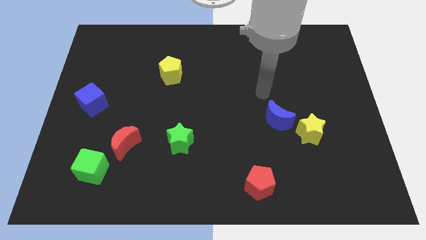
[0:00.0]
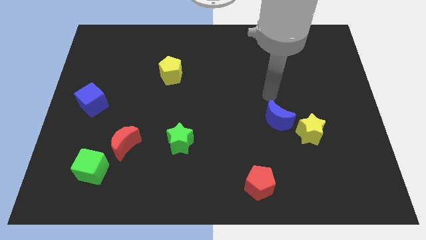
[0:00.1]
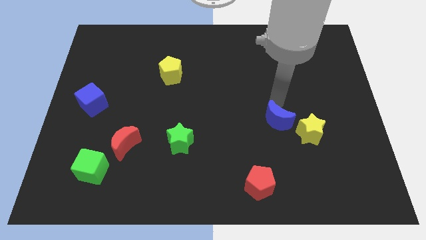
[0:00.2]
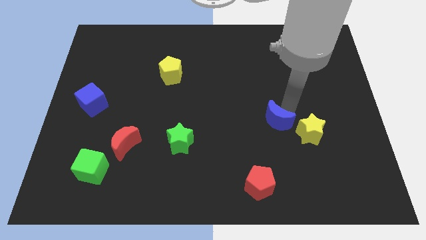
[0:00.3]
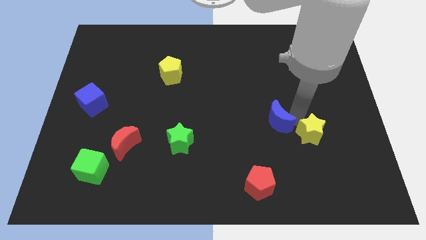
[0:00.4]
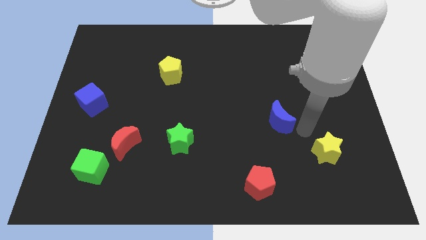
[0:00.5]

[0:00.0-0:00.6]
move the blue moon away from the yellow star

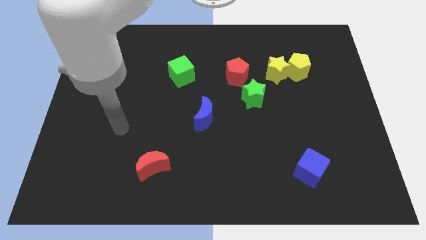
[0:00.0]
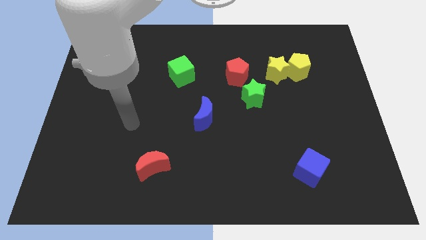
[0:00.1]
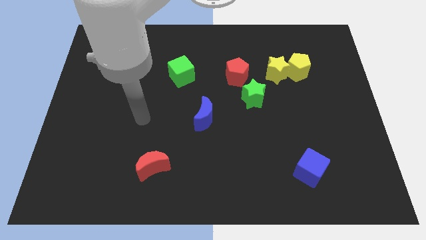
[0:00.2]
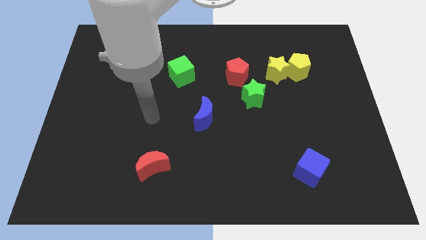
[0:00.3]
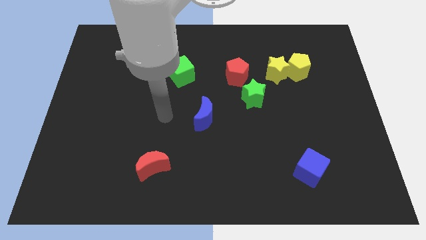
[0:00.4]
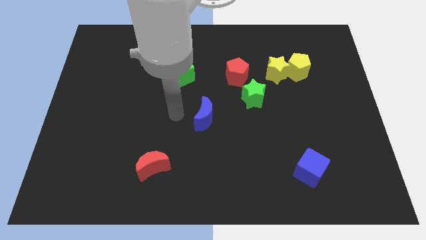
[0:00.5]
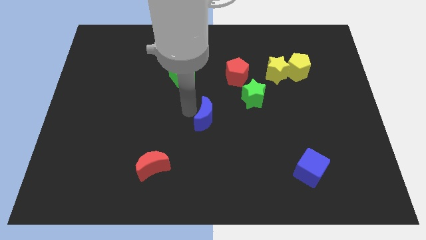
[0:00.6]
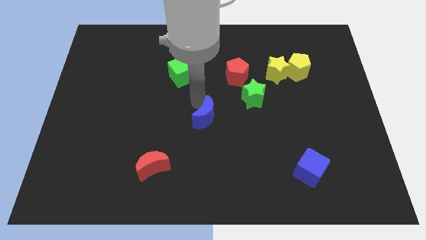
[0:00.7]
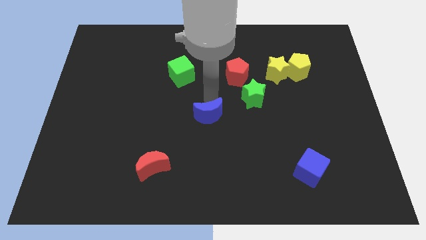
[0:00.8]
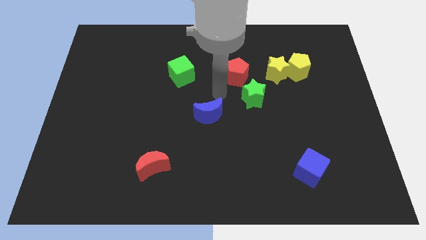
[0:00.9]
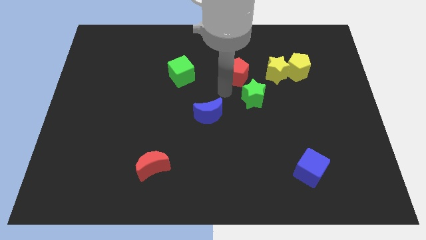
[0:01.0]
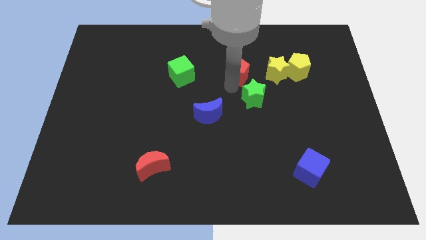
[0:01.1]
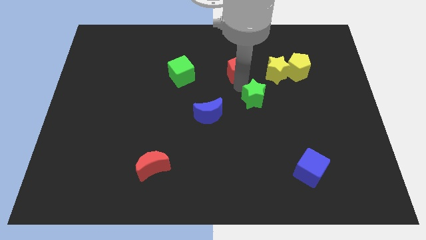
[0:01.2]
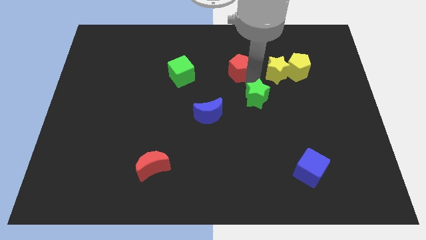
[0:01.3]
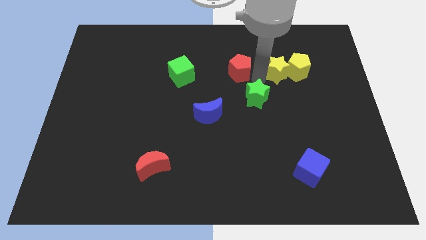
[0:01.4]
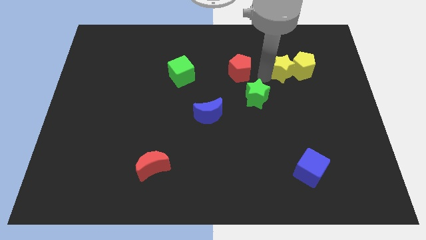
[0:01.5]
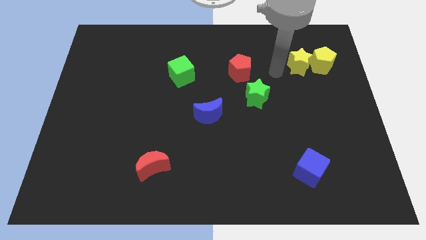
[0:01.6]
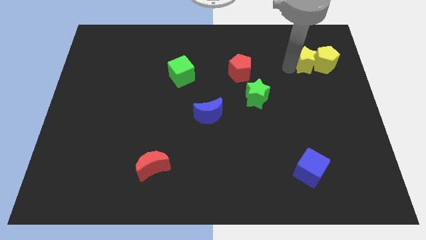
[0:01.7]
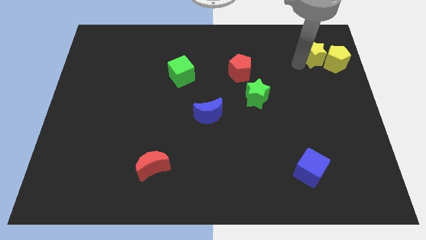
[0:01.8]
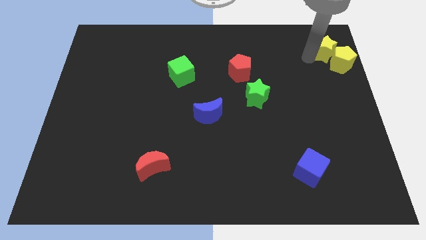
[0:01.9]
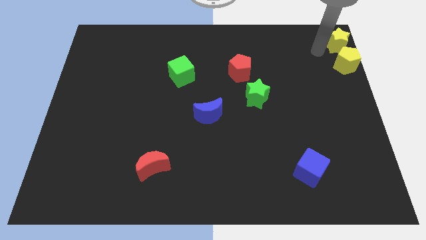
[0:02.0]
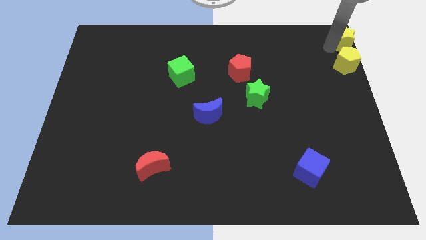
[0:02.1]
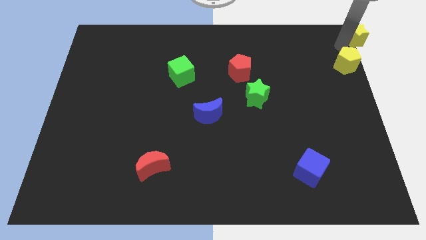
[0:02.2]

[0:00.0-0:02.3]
move the yellow pentagon away from the yellow star

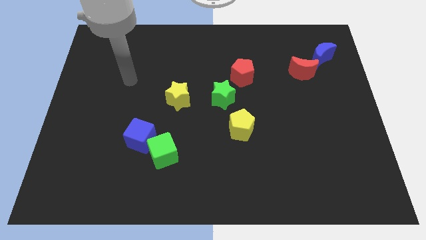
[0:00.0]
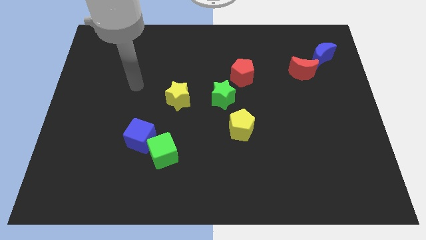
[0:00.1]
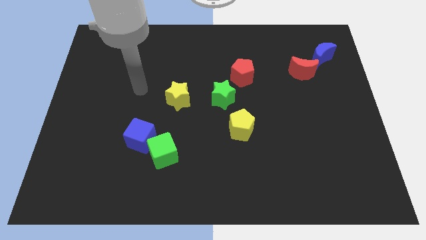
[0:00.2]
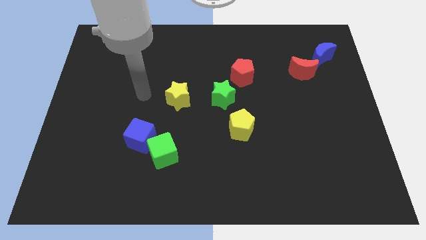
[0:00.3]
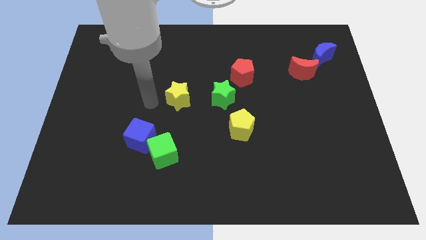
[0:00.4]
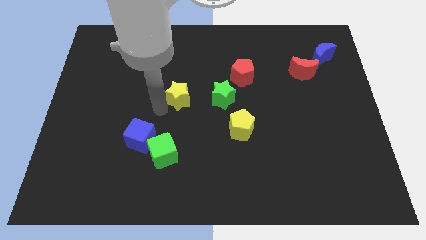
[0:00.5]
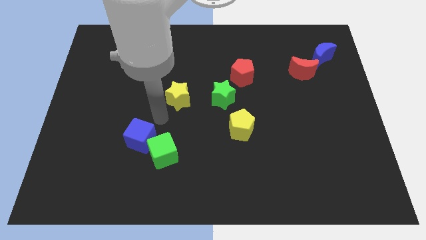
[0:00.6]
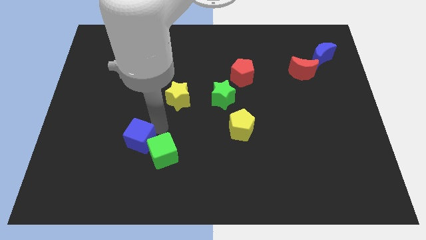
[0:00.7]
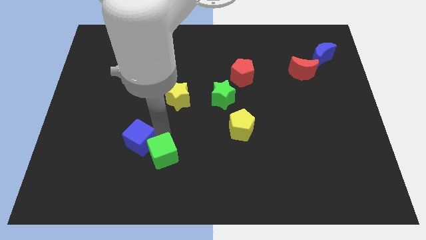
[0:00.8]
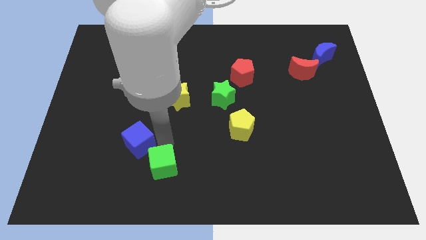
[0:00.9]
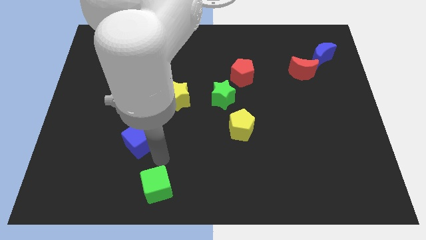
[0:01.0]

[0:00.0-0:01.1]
pull the blue cube apart from the green cube

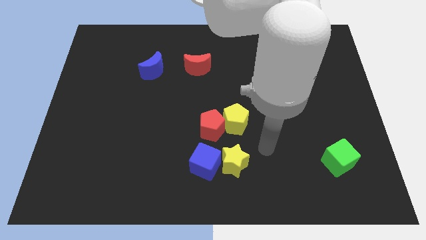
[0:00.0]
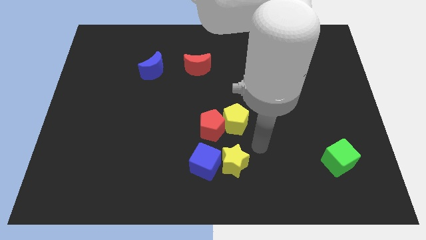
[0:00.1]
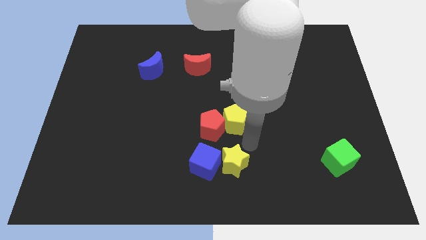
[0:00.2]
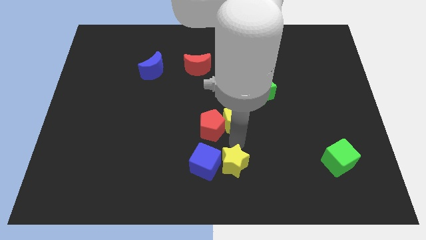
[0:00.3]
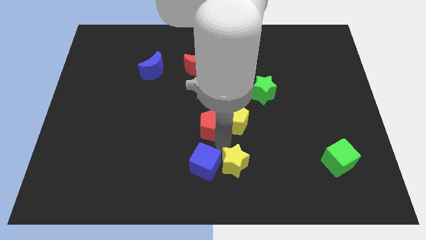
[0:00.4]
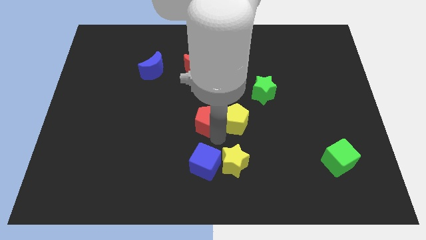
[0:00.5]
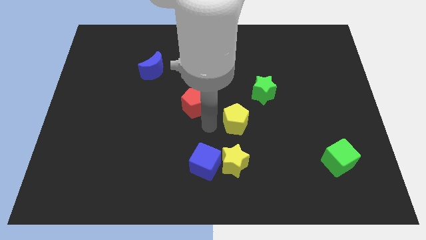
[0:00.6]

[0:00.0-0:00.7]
separate the yellow pentagon from the red pentagon

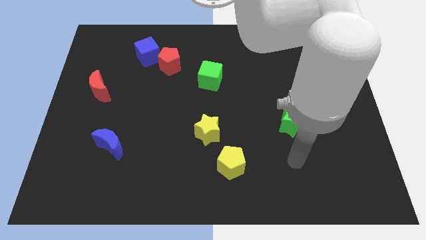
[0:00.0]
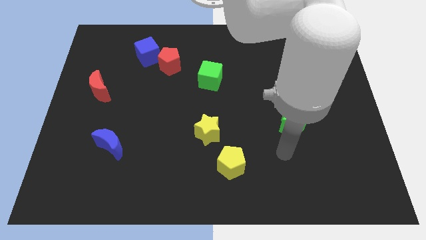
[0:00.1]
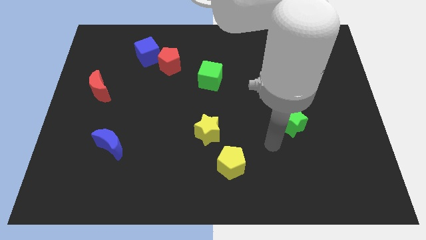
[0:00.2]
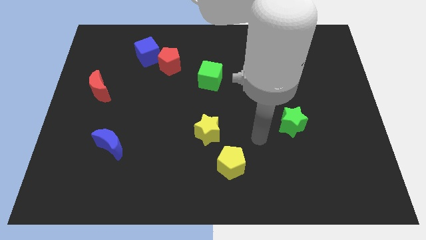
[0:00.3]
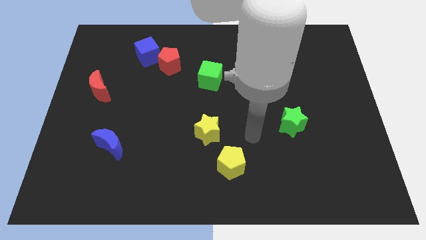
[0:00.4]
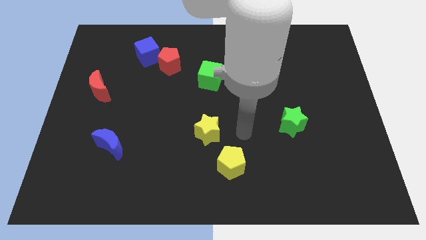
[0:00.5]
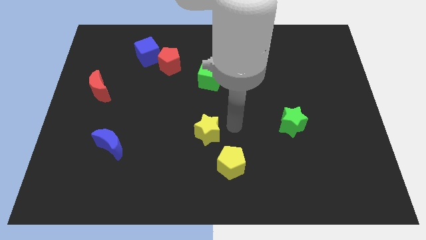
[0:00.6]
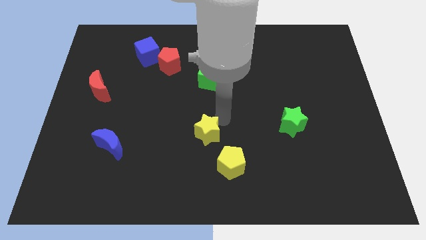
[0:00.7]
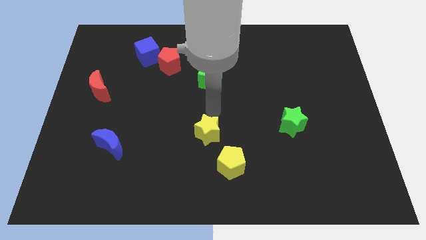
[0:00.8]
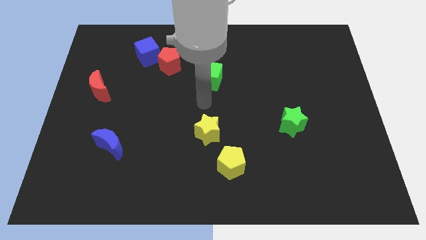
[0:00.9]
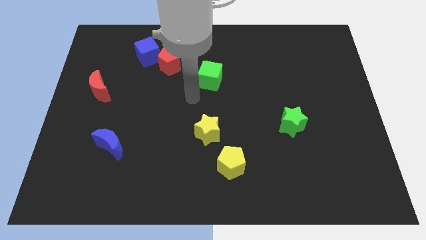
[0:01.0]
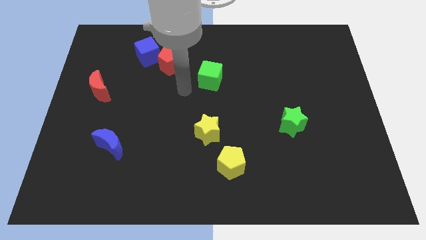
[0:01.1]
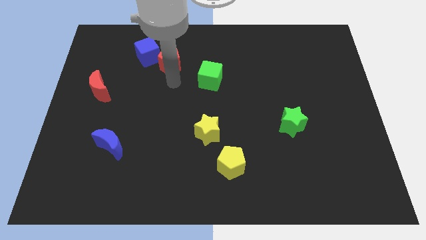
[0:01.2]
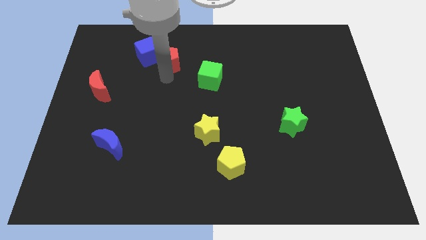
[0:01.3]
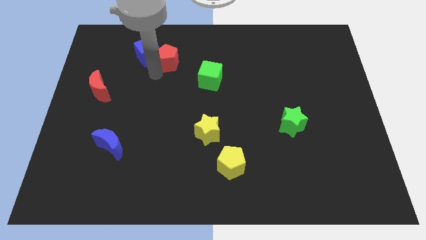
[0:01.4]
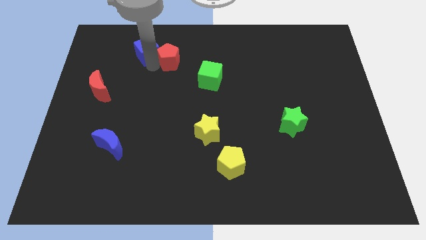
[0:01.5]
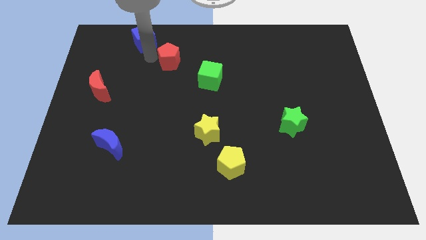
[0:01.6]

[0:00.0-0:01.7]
separate the red pentagon from the blue cube

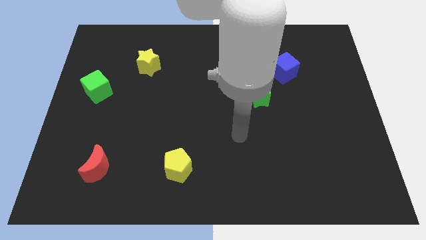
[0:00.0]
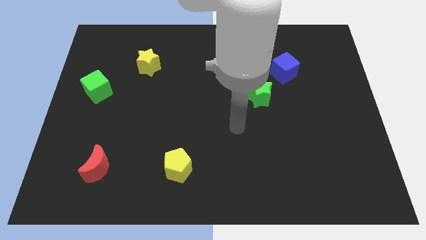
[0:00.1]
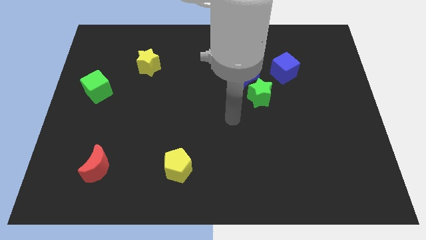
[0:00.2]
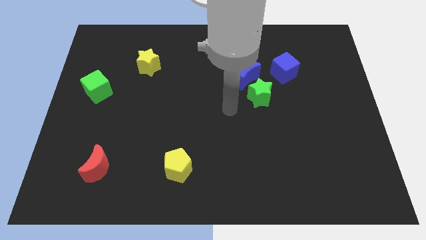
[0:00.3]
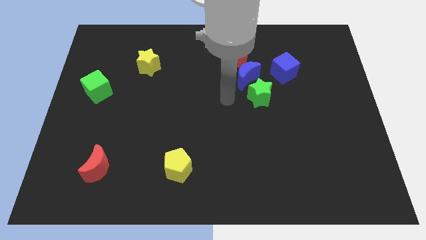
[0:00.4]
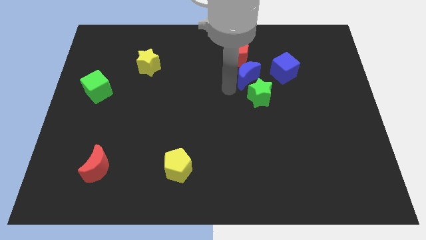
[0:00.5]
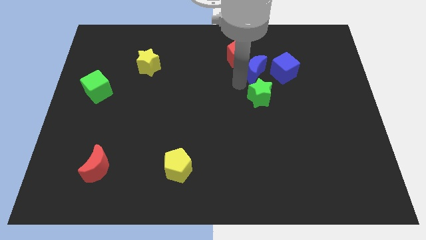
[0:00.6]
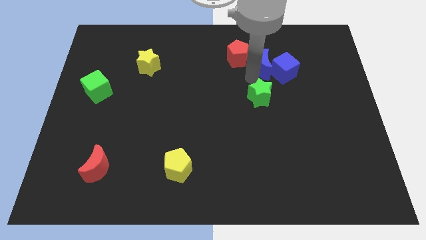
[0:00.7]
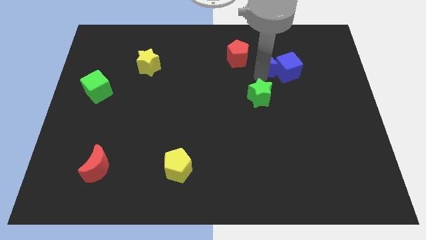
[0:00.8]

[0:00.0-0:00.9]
separate the green star from the blue moon

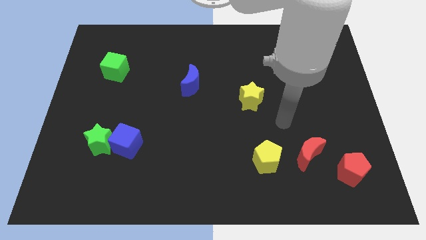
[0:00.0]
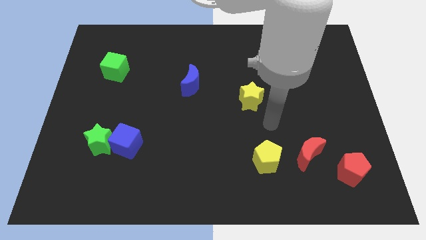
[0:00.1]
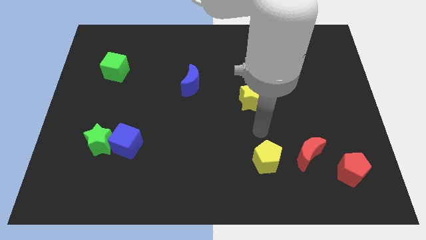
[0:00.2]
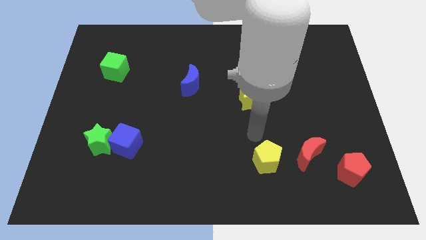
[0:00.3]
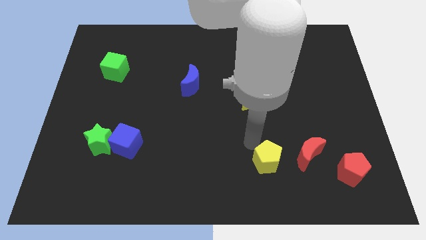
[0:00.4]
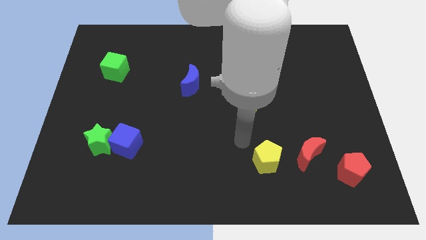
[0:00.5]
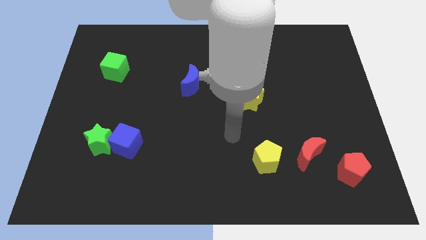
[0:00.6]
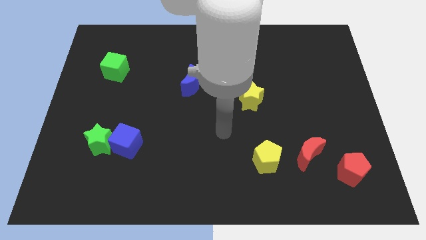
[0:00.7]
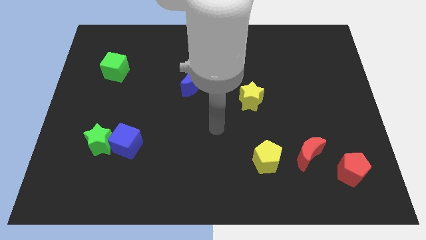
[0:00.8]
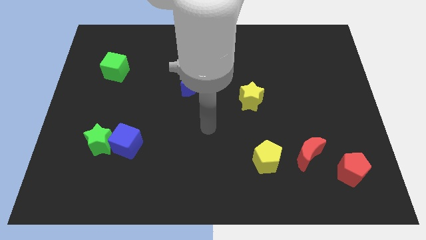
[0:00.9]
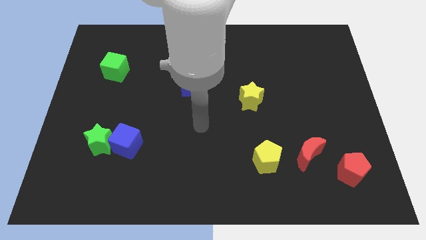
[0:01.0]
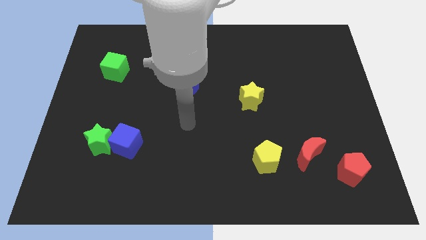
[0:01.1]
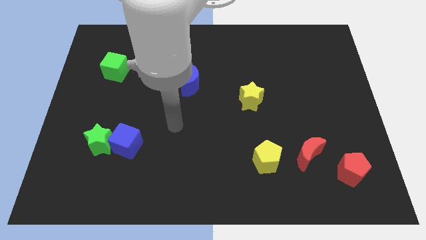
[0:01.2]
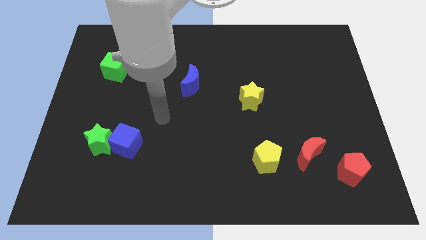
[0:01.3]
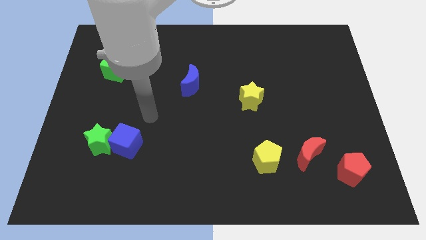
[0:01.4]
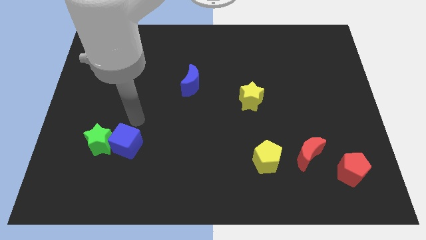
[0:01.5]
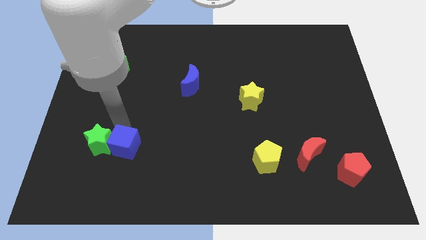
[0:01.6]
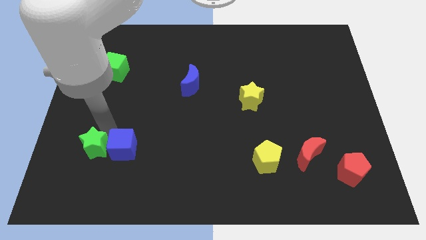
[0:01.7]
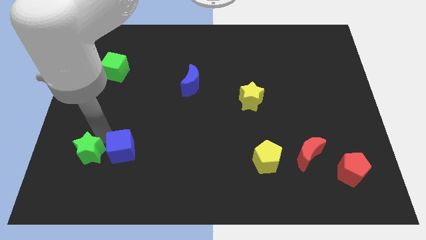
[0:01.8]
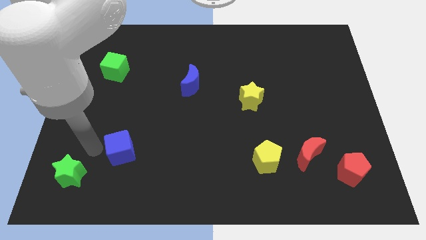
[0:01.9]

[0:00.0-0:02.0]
pull the blue cube apart from the green star
